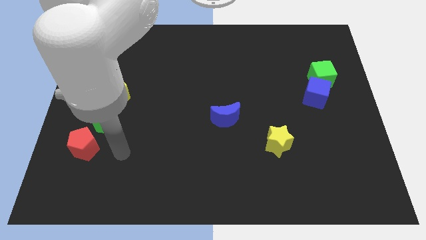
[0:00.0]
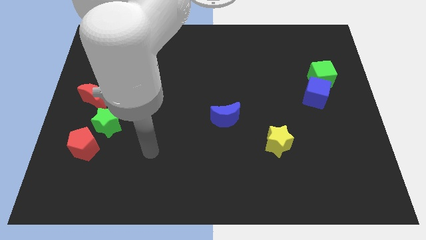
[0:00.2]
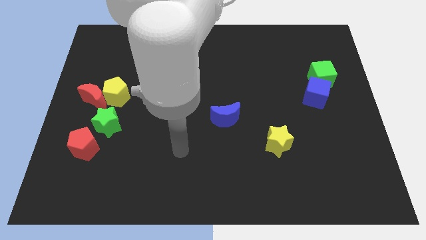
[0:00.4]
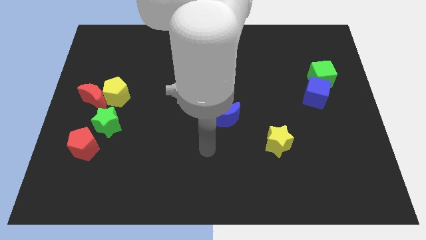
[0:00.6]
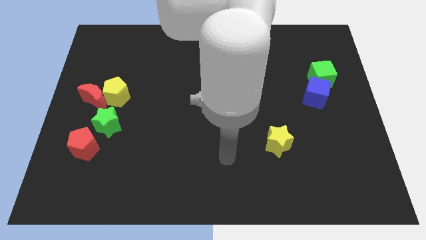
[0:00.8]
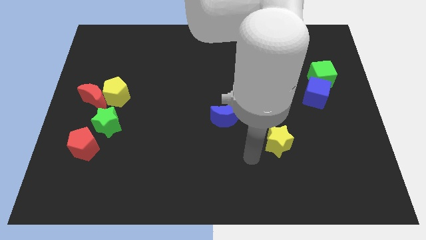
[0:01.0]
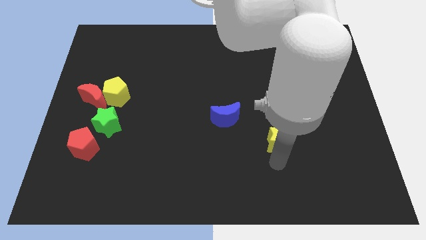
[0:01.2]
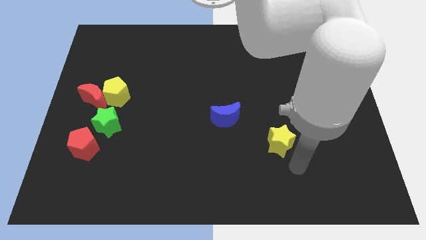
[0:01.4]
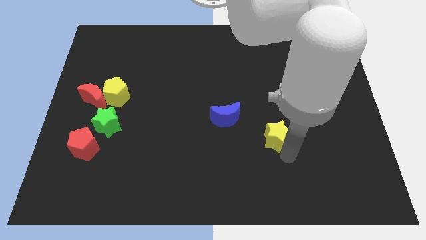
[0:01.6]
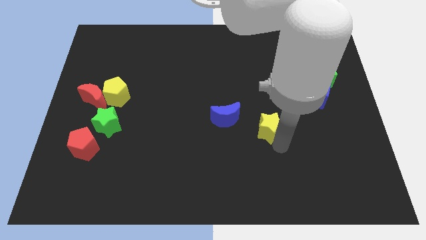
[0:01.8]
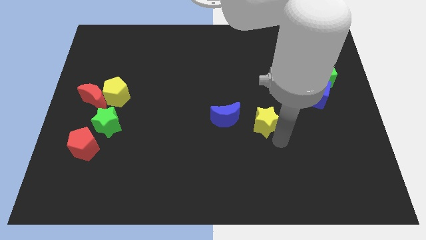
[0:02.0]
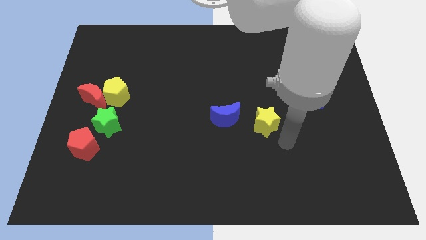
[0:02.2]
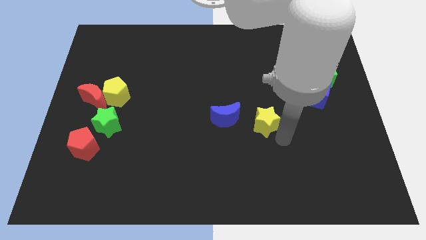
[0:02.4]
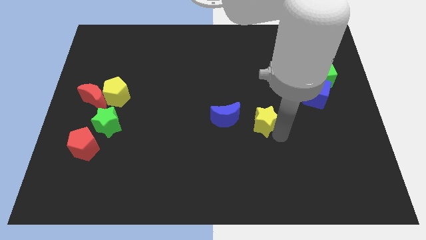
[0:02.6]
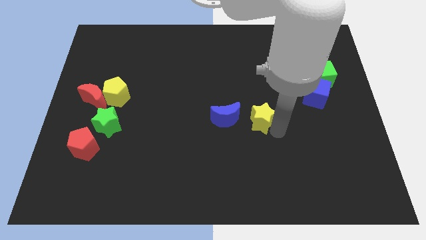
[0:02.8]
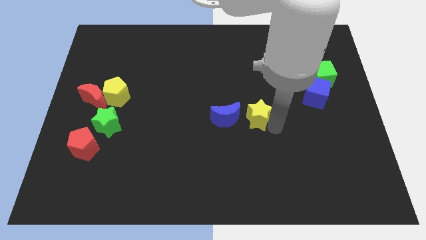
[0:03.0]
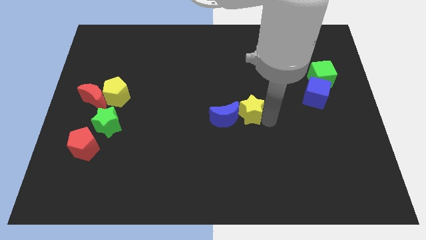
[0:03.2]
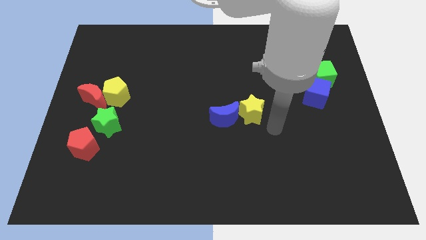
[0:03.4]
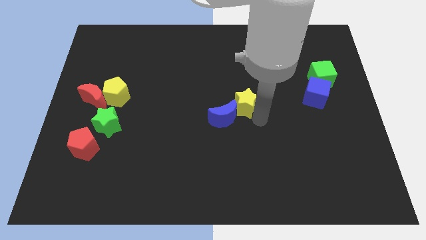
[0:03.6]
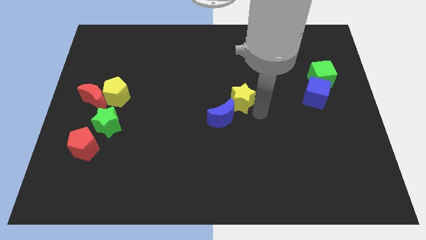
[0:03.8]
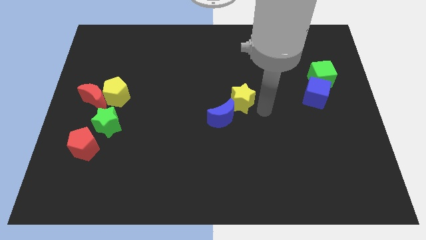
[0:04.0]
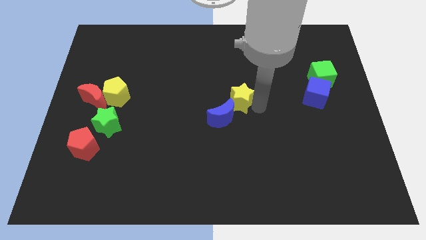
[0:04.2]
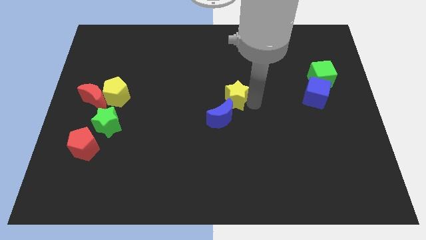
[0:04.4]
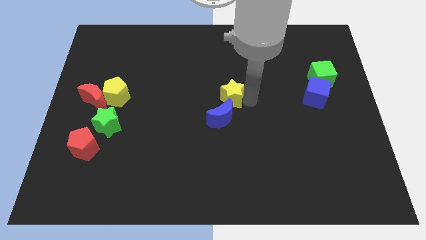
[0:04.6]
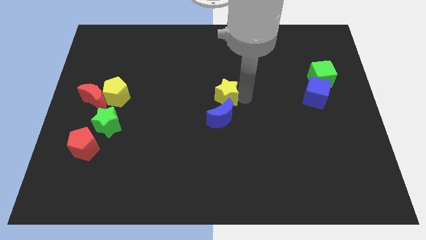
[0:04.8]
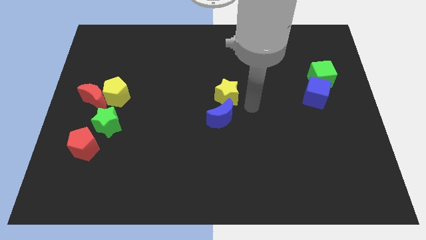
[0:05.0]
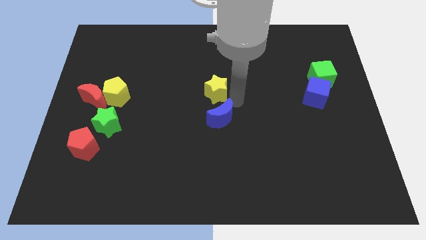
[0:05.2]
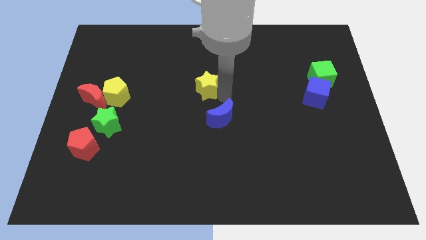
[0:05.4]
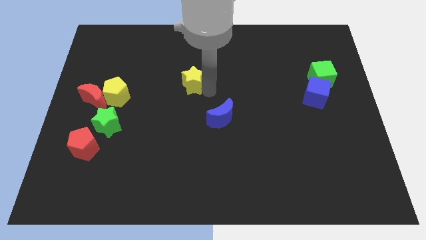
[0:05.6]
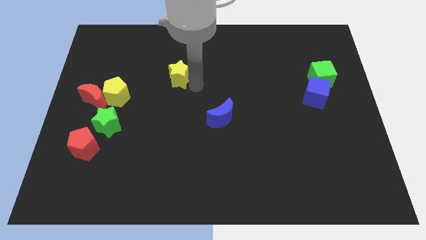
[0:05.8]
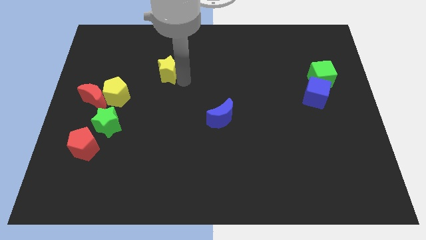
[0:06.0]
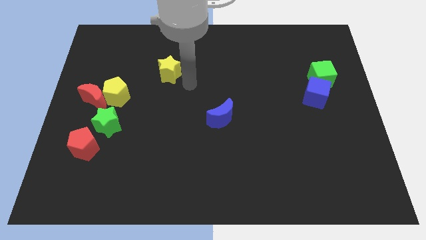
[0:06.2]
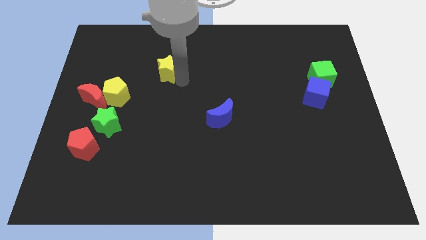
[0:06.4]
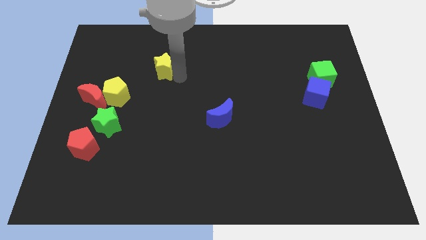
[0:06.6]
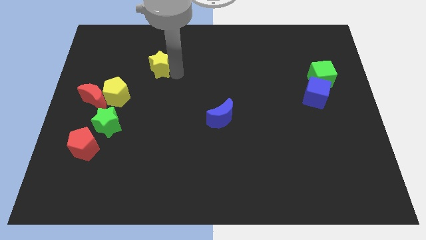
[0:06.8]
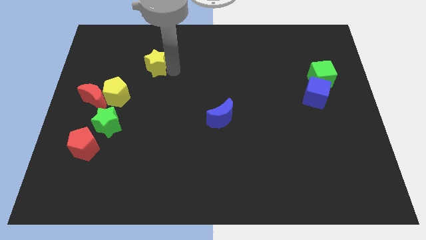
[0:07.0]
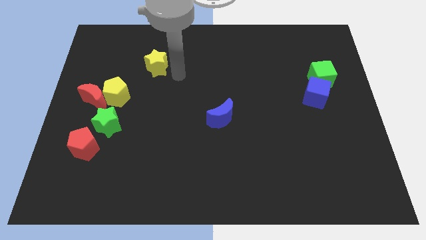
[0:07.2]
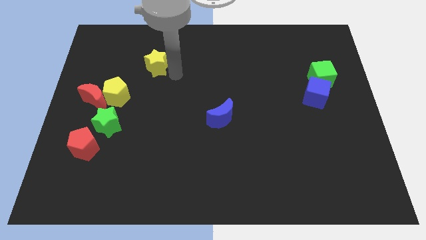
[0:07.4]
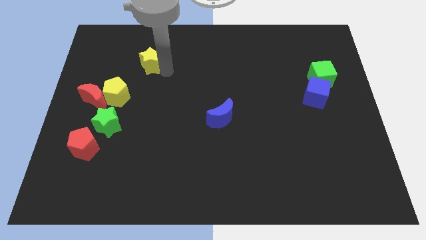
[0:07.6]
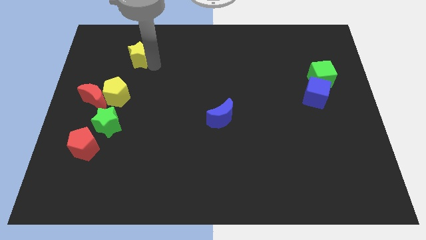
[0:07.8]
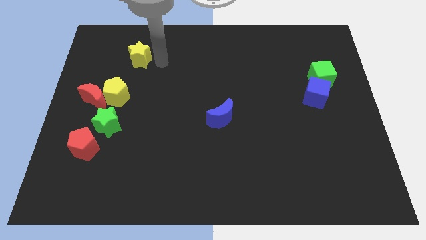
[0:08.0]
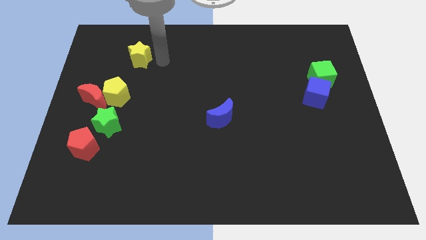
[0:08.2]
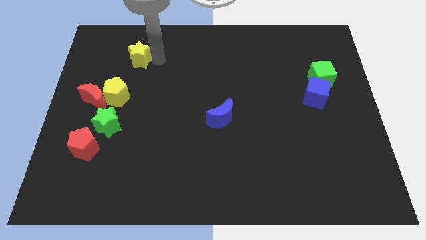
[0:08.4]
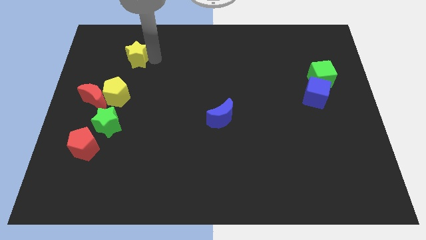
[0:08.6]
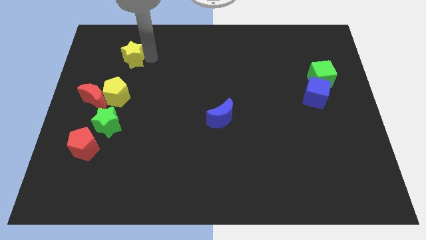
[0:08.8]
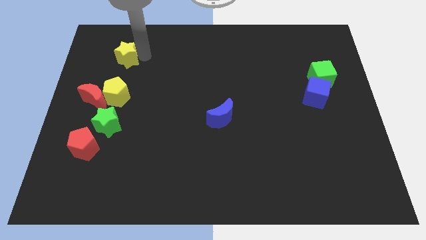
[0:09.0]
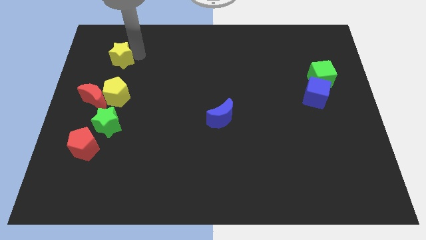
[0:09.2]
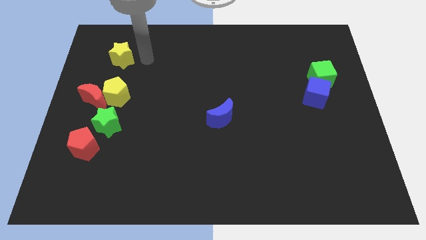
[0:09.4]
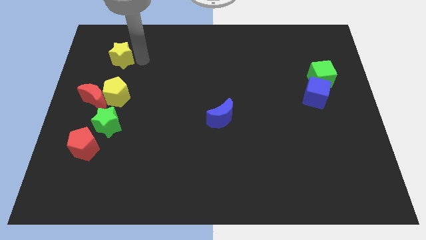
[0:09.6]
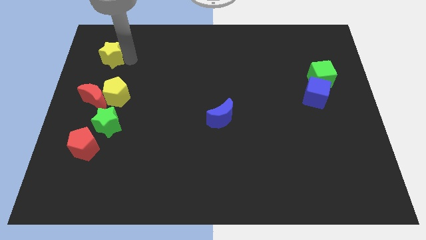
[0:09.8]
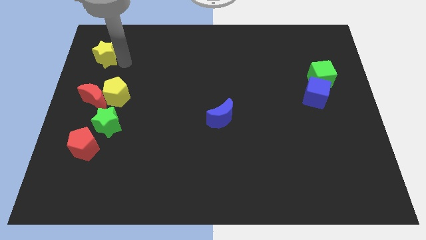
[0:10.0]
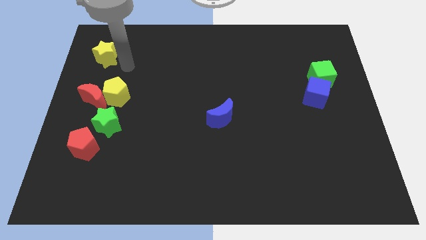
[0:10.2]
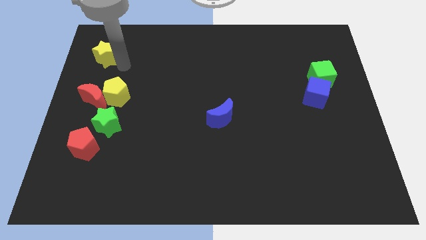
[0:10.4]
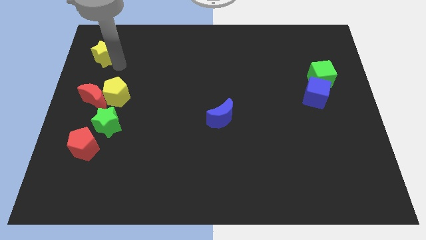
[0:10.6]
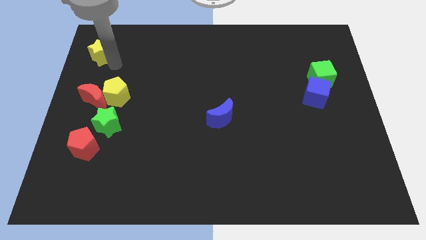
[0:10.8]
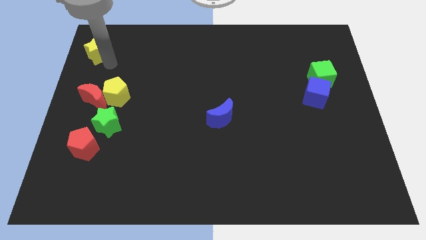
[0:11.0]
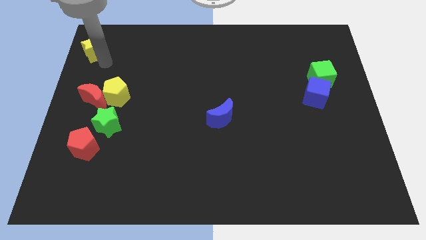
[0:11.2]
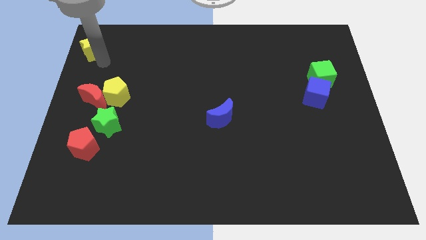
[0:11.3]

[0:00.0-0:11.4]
slide the yellow star to the top left corner

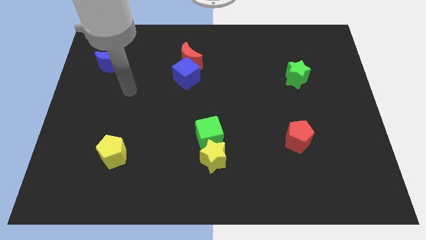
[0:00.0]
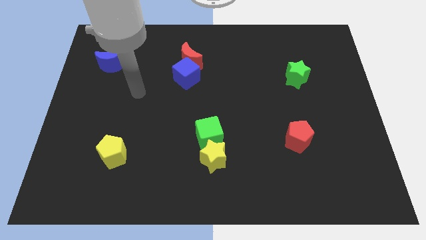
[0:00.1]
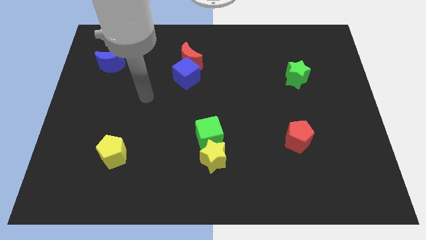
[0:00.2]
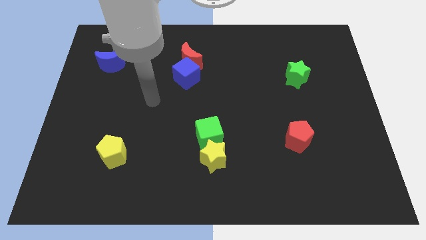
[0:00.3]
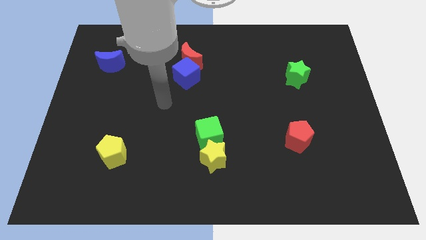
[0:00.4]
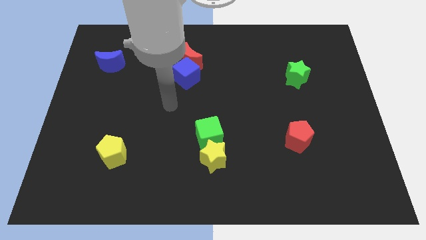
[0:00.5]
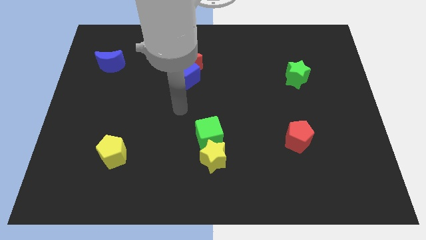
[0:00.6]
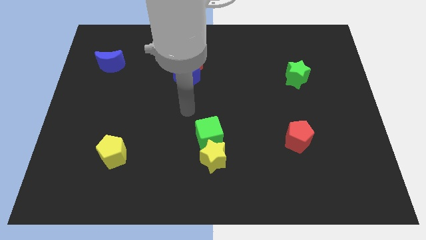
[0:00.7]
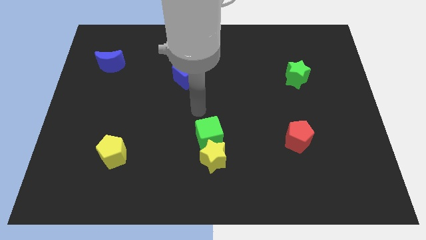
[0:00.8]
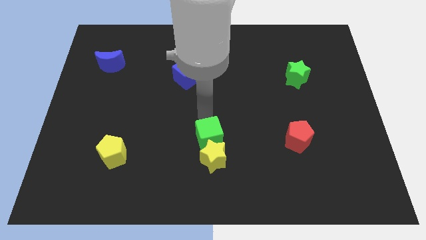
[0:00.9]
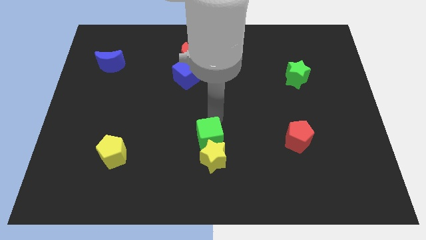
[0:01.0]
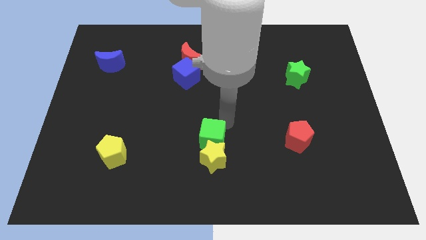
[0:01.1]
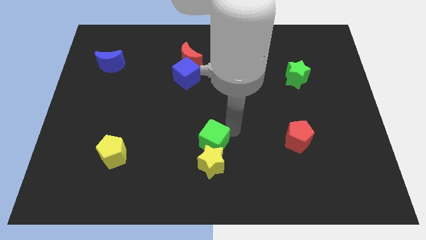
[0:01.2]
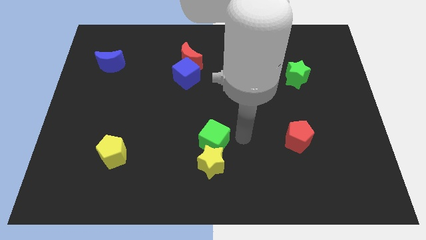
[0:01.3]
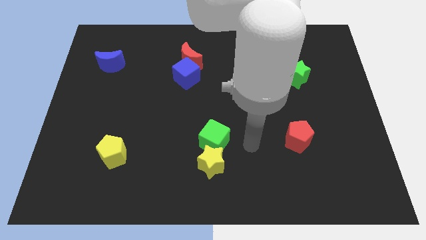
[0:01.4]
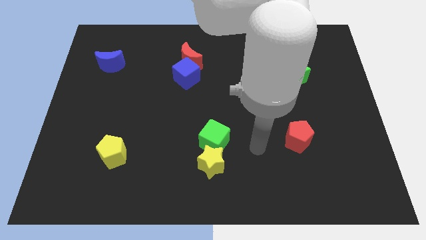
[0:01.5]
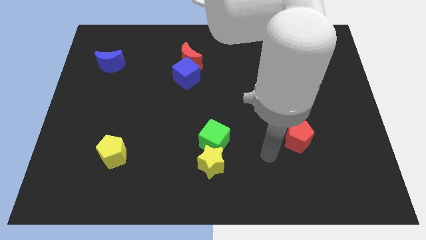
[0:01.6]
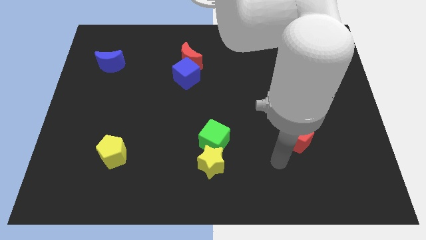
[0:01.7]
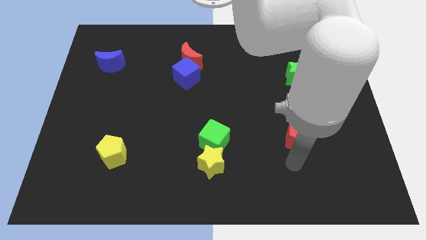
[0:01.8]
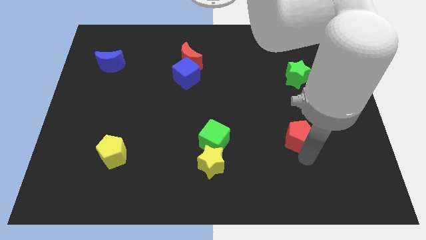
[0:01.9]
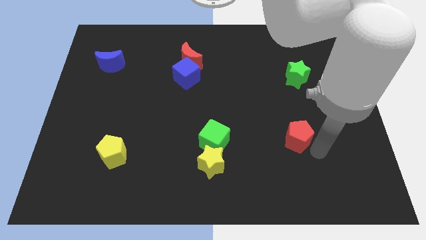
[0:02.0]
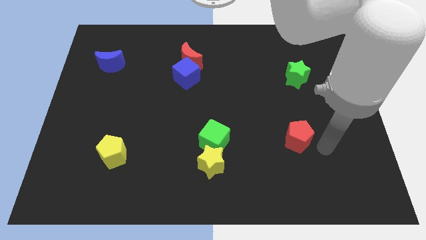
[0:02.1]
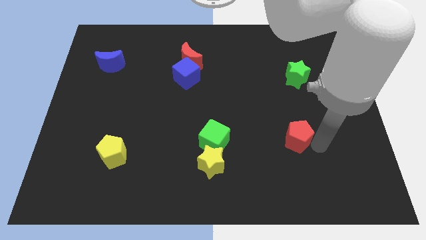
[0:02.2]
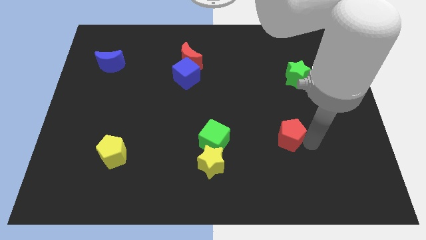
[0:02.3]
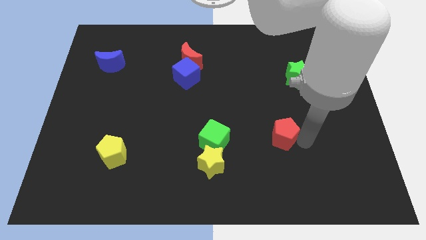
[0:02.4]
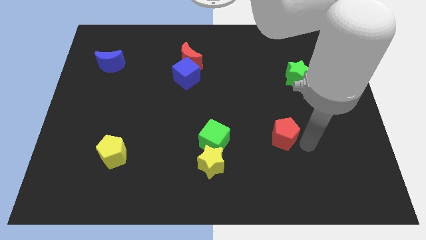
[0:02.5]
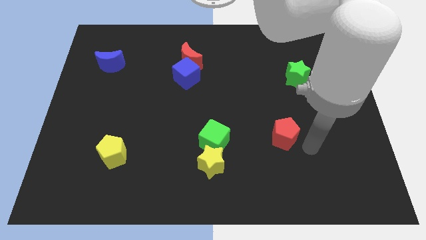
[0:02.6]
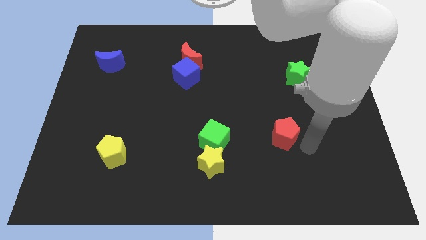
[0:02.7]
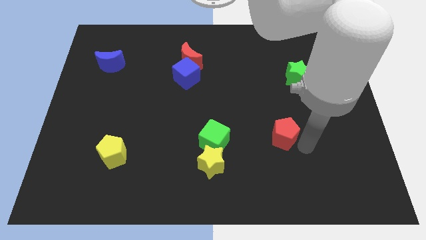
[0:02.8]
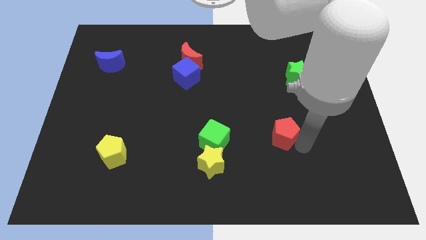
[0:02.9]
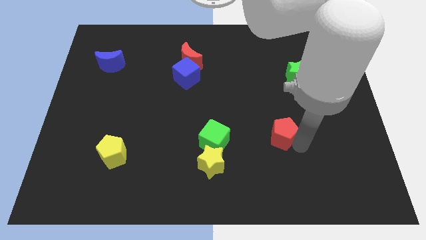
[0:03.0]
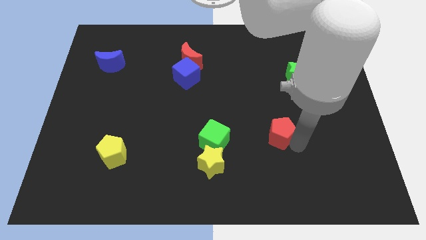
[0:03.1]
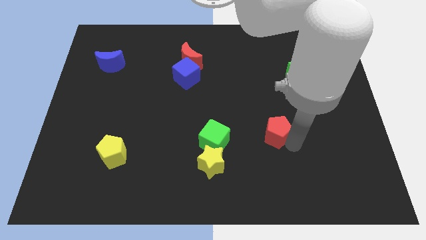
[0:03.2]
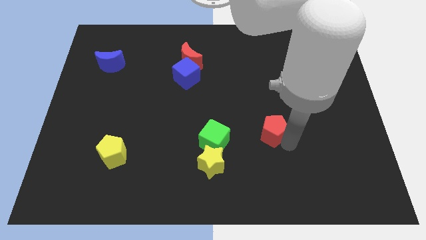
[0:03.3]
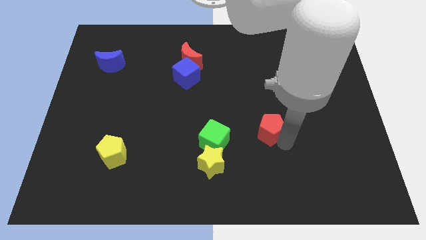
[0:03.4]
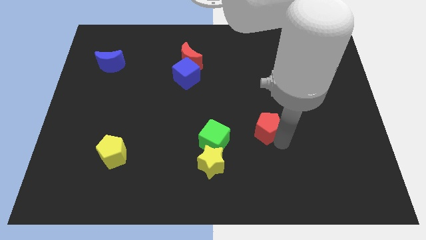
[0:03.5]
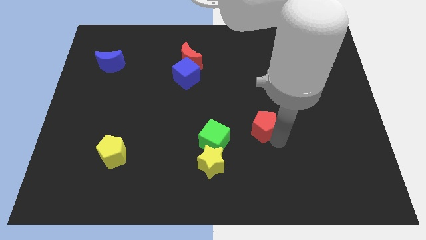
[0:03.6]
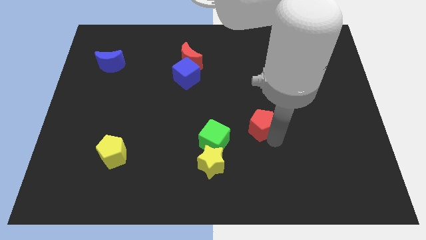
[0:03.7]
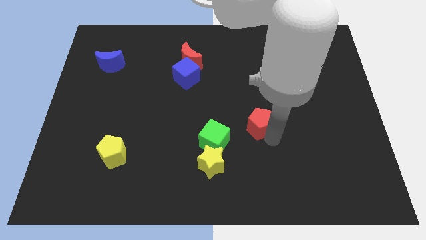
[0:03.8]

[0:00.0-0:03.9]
slide the red pentagon to the center
